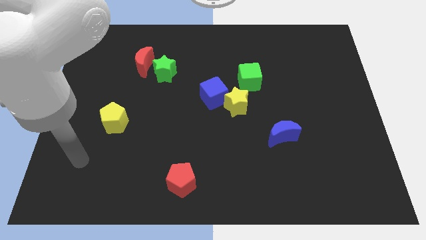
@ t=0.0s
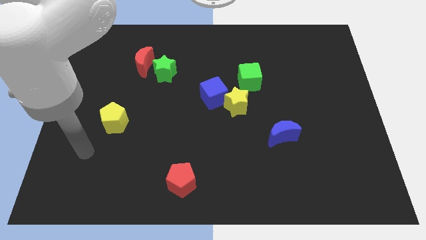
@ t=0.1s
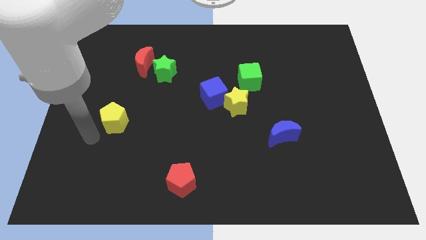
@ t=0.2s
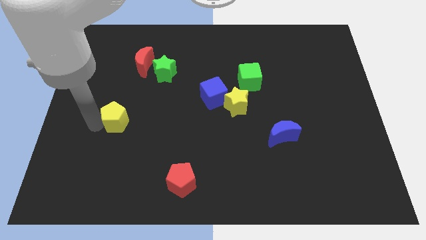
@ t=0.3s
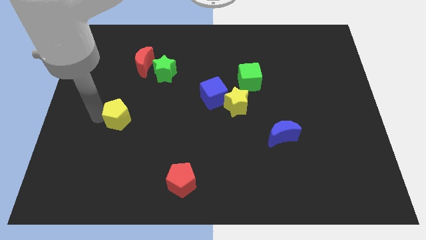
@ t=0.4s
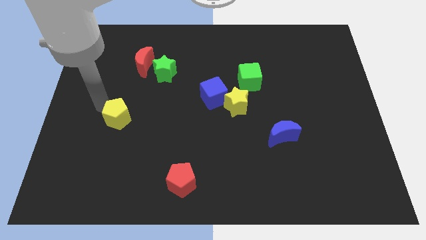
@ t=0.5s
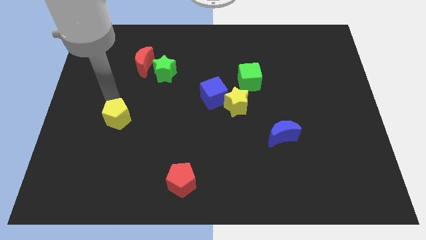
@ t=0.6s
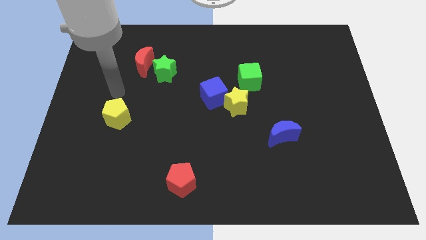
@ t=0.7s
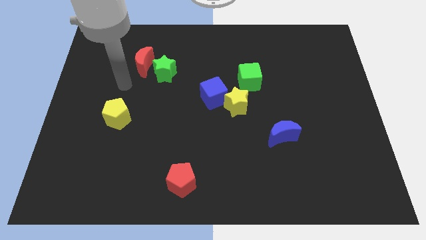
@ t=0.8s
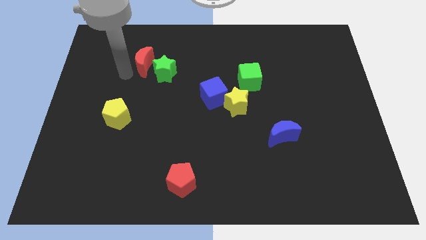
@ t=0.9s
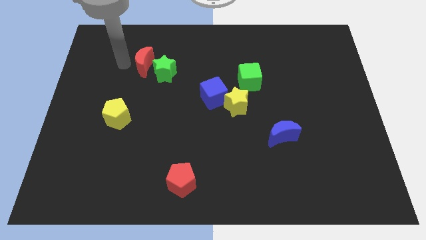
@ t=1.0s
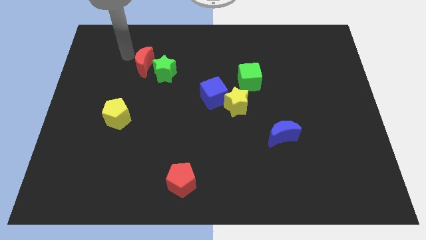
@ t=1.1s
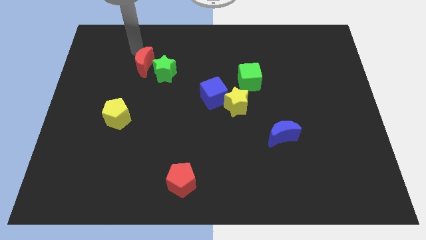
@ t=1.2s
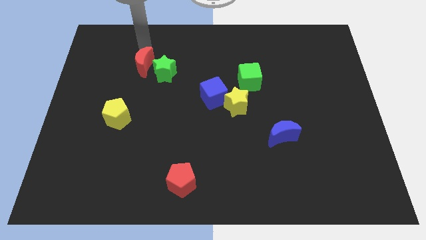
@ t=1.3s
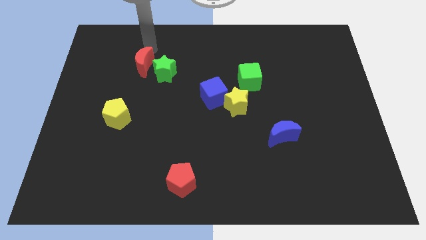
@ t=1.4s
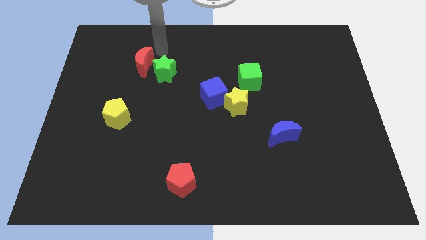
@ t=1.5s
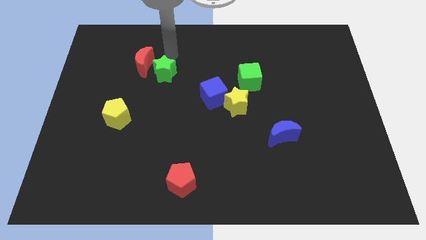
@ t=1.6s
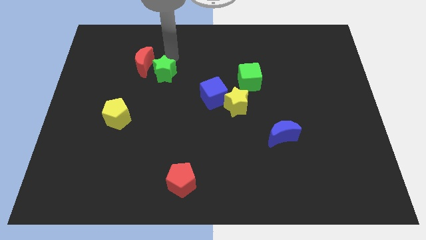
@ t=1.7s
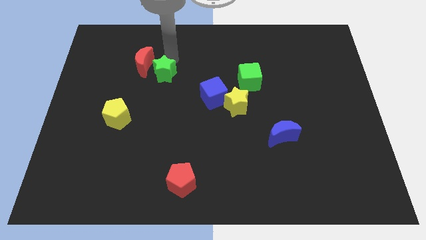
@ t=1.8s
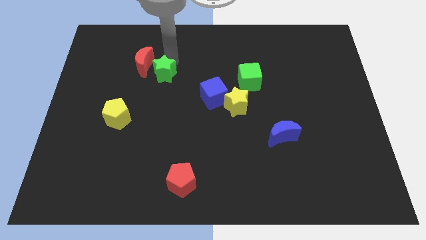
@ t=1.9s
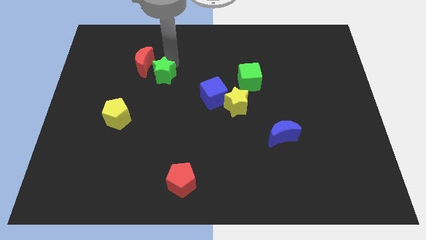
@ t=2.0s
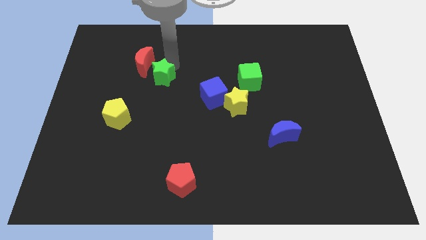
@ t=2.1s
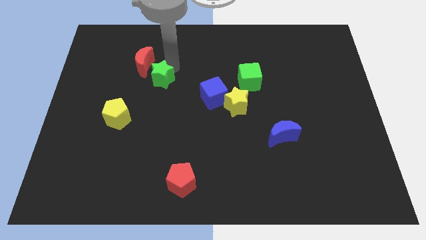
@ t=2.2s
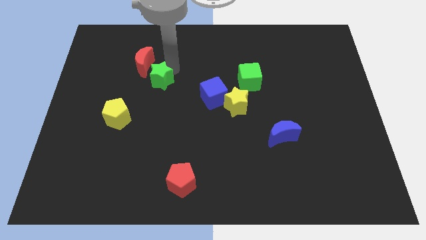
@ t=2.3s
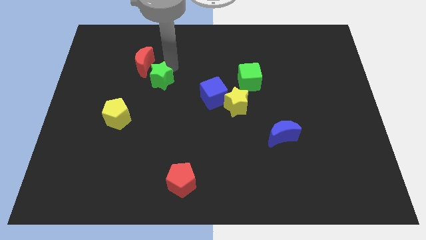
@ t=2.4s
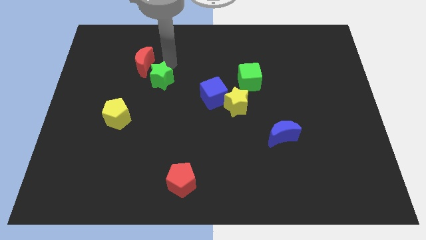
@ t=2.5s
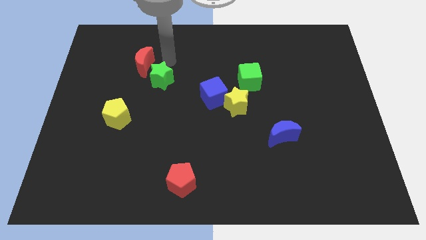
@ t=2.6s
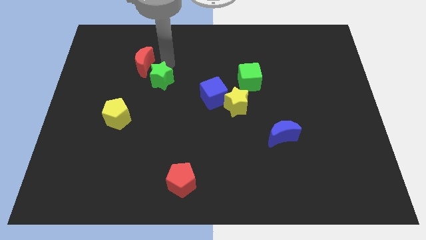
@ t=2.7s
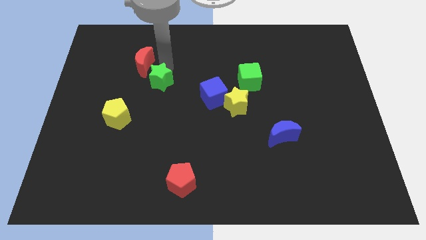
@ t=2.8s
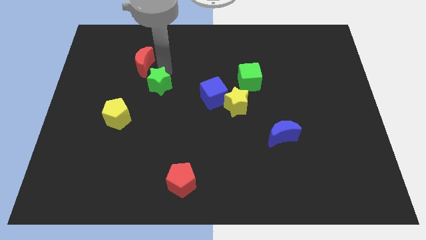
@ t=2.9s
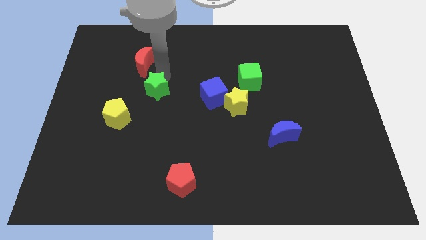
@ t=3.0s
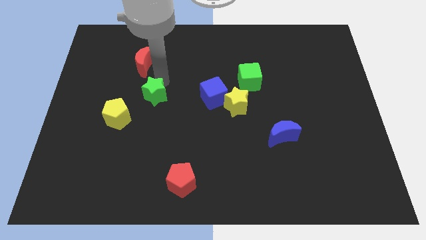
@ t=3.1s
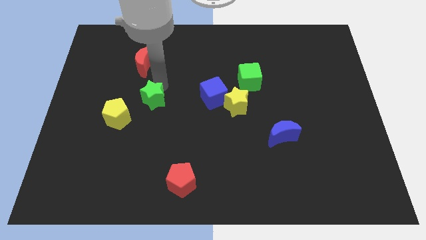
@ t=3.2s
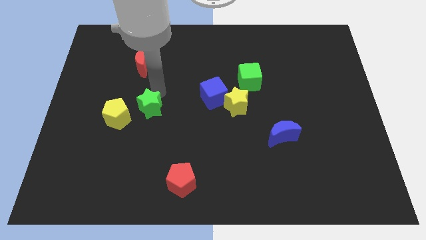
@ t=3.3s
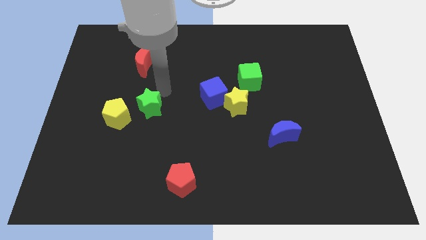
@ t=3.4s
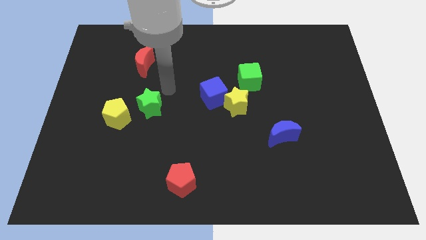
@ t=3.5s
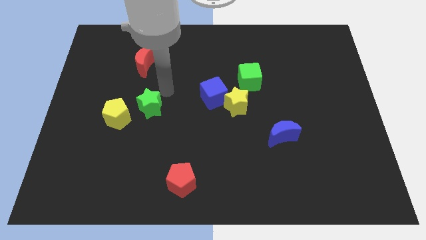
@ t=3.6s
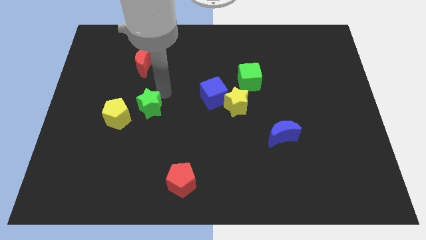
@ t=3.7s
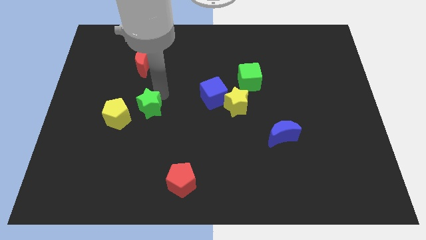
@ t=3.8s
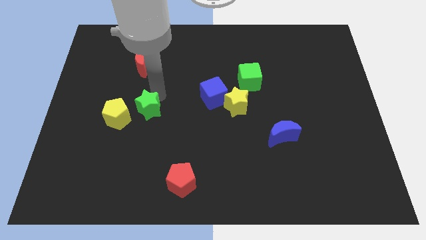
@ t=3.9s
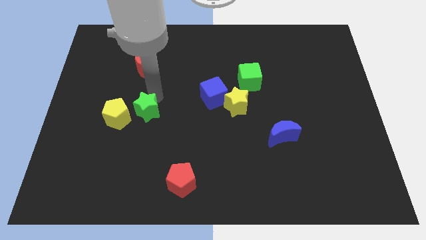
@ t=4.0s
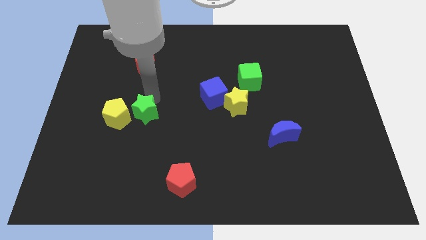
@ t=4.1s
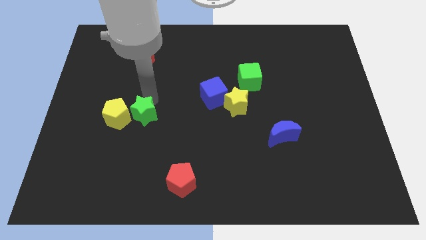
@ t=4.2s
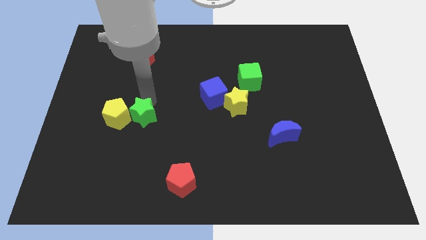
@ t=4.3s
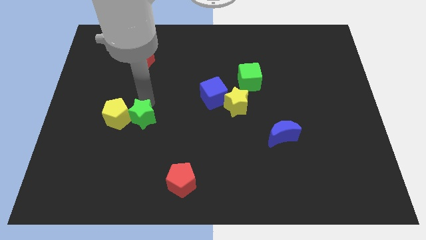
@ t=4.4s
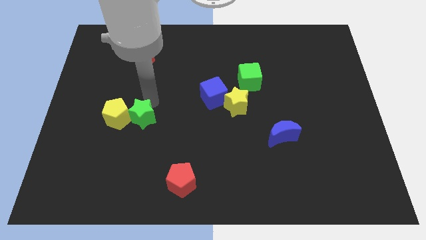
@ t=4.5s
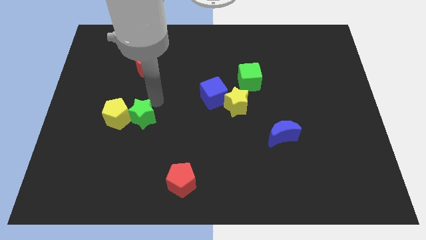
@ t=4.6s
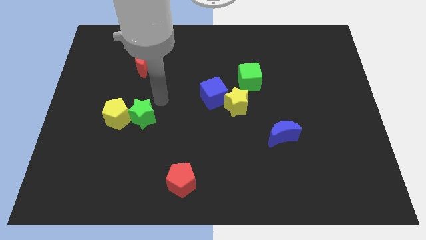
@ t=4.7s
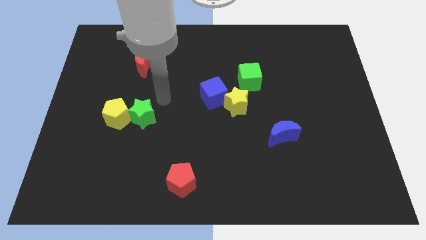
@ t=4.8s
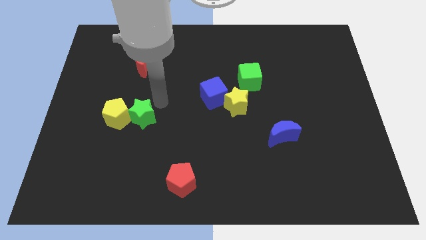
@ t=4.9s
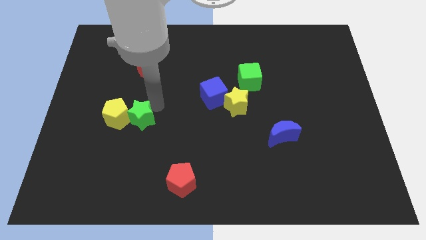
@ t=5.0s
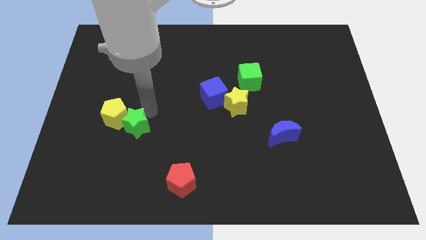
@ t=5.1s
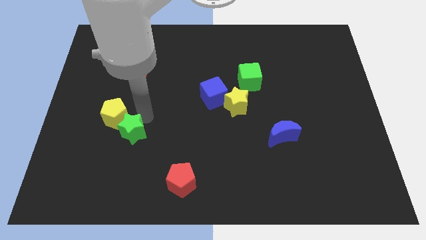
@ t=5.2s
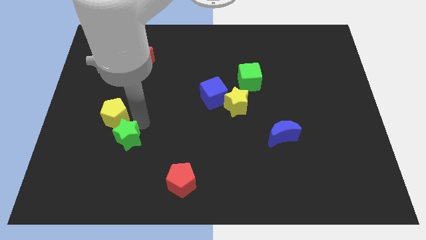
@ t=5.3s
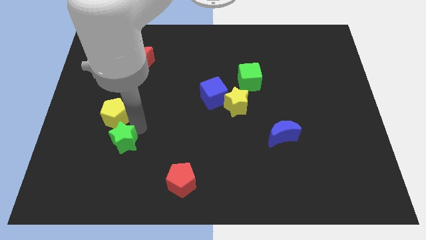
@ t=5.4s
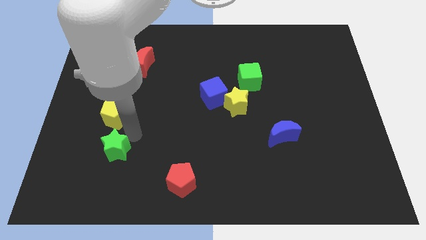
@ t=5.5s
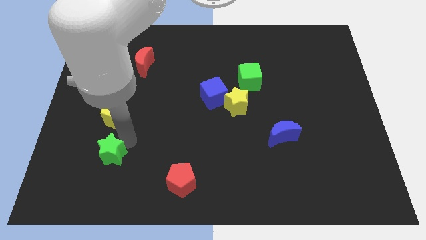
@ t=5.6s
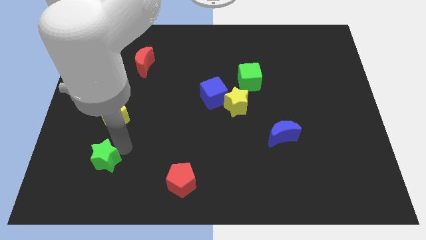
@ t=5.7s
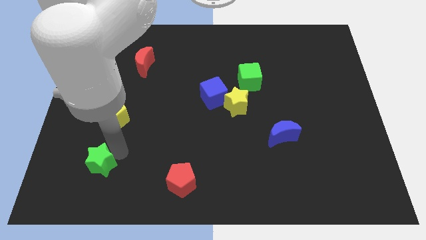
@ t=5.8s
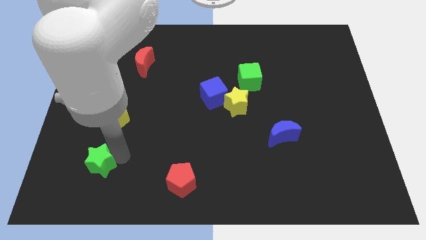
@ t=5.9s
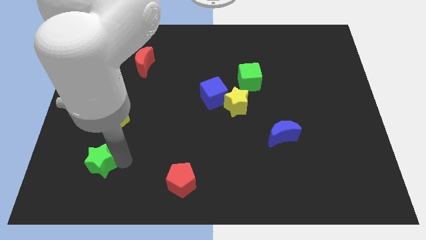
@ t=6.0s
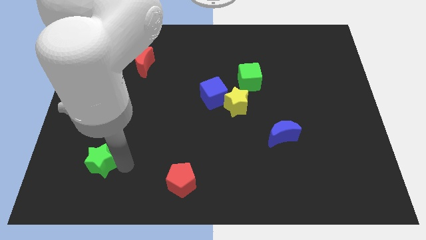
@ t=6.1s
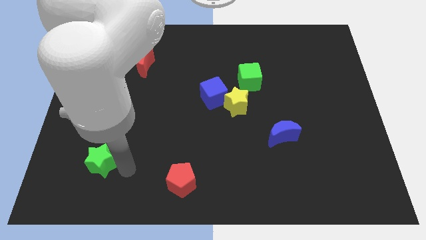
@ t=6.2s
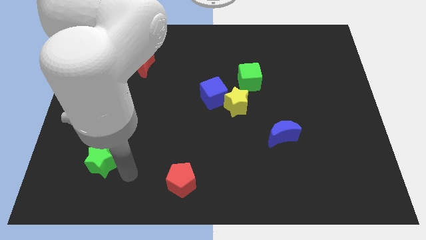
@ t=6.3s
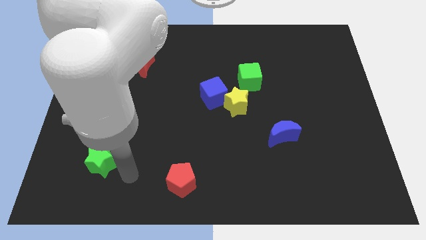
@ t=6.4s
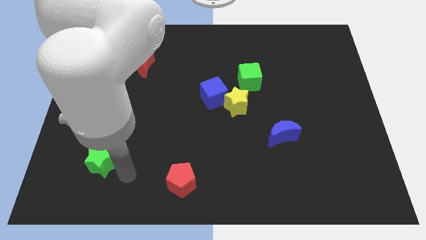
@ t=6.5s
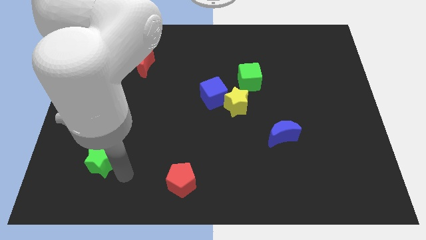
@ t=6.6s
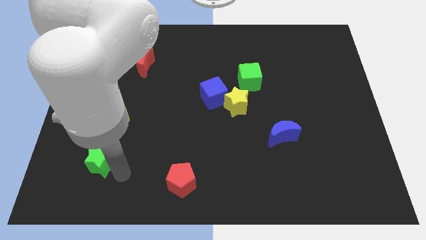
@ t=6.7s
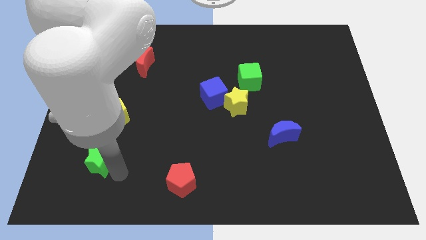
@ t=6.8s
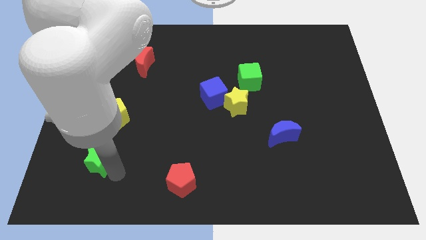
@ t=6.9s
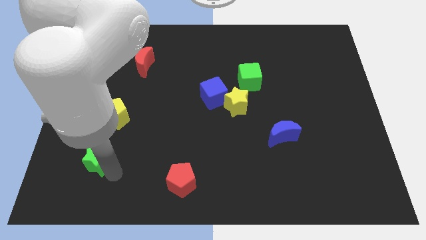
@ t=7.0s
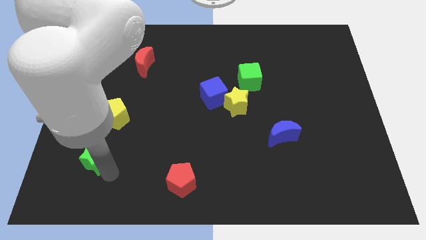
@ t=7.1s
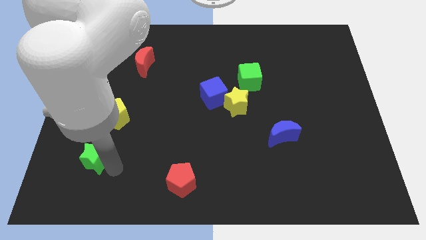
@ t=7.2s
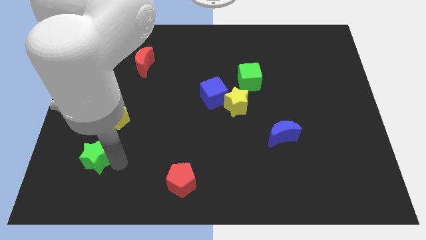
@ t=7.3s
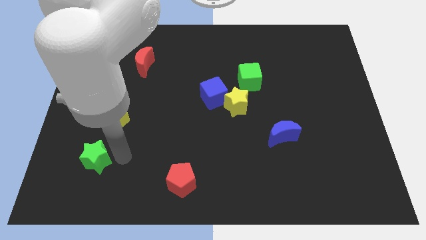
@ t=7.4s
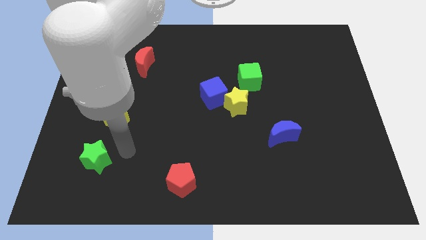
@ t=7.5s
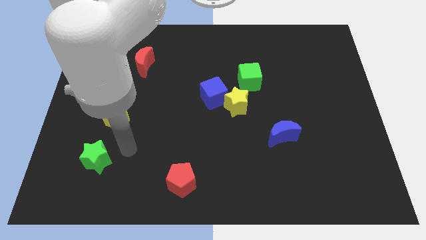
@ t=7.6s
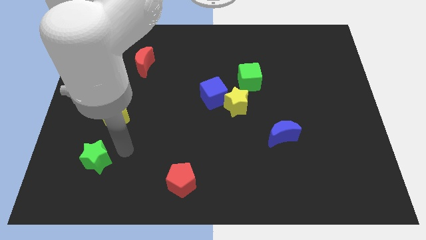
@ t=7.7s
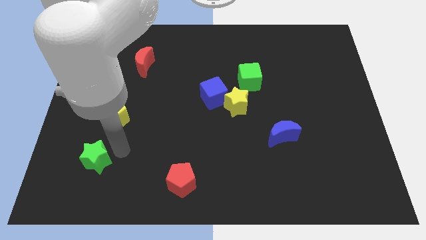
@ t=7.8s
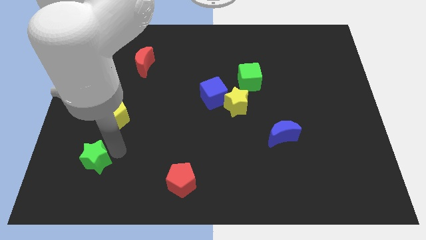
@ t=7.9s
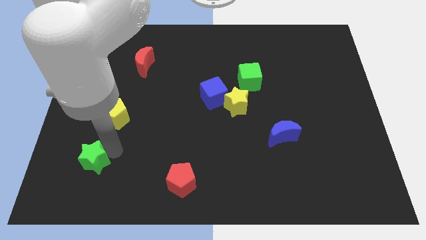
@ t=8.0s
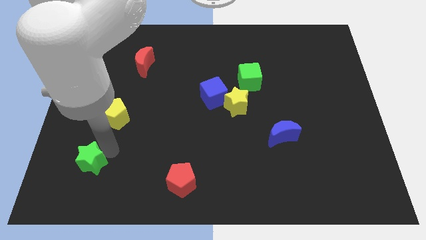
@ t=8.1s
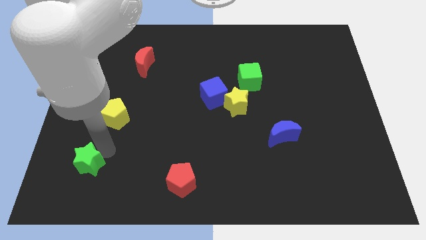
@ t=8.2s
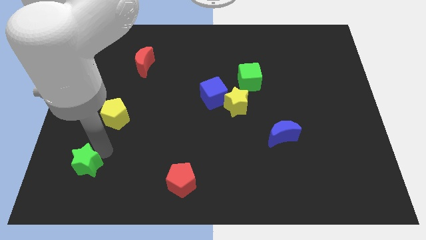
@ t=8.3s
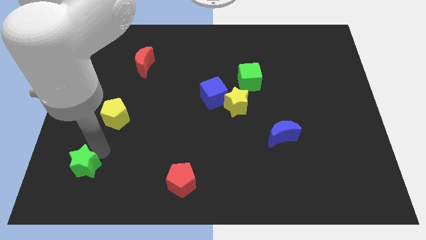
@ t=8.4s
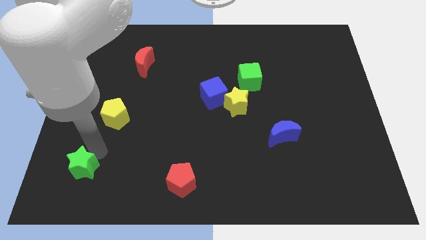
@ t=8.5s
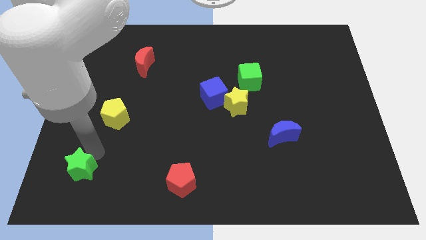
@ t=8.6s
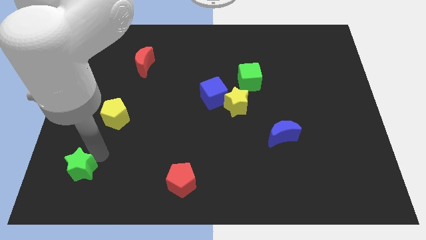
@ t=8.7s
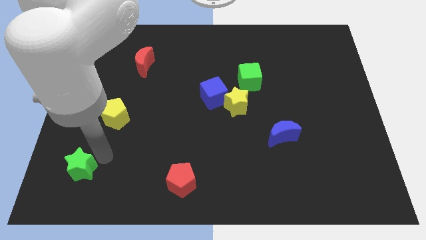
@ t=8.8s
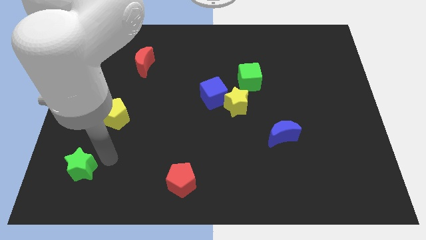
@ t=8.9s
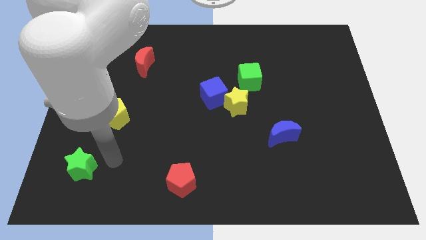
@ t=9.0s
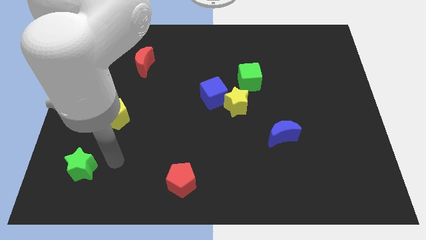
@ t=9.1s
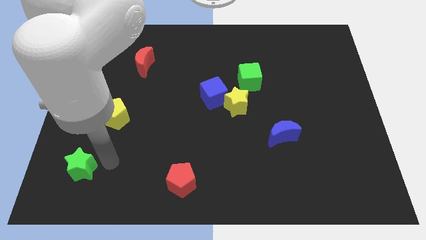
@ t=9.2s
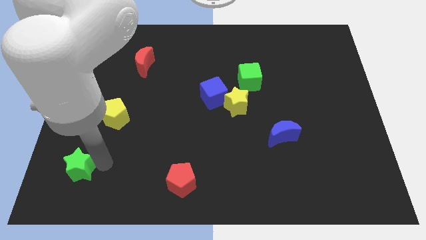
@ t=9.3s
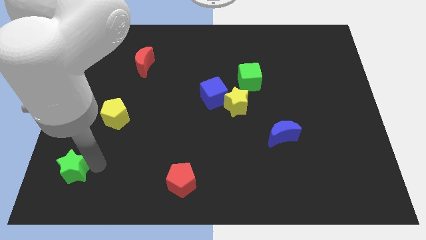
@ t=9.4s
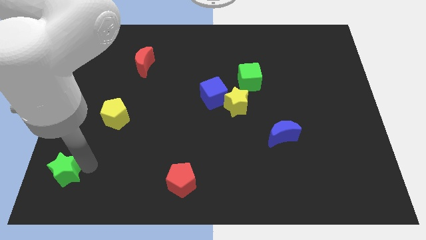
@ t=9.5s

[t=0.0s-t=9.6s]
put the green star to the bottom left corner
